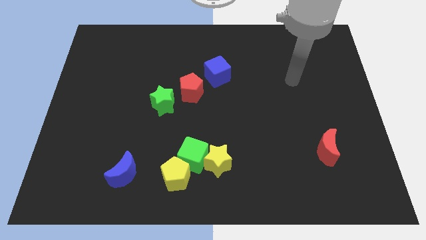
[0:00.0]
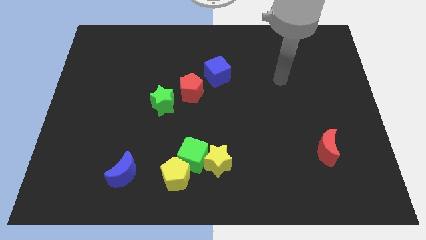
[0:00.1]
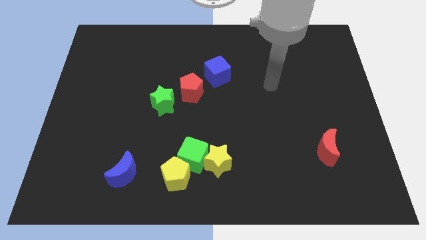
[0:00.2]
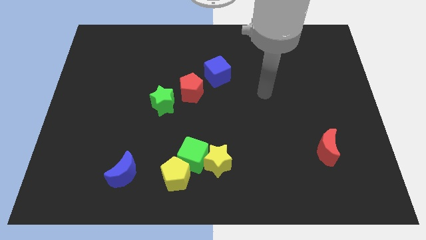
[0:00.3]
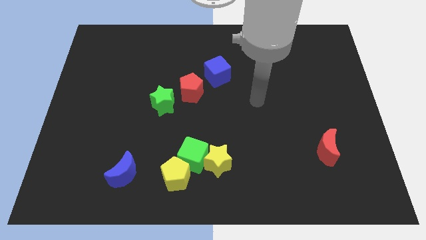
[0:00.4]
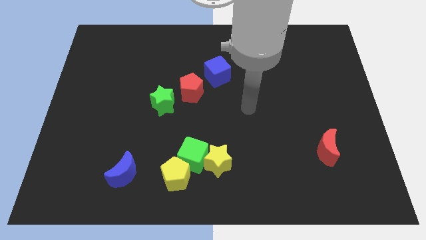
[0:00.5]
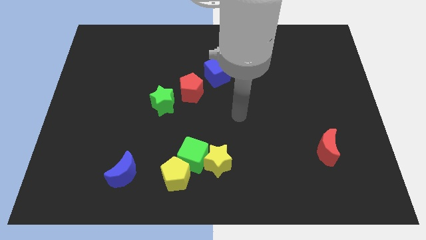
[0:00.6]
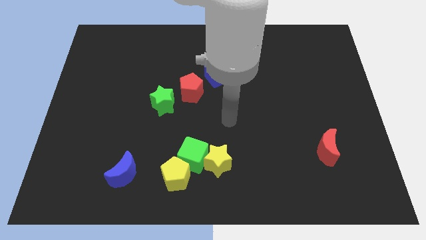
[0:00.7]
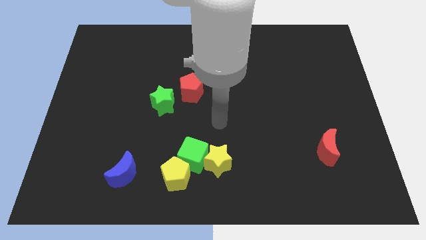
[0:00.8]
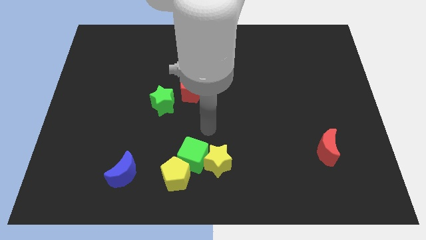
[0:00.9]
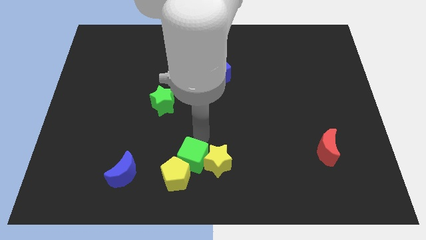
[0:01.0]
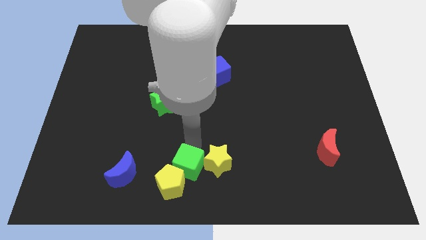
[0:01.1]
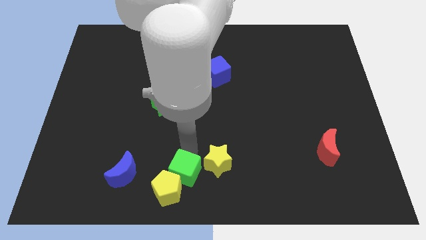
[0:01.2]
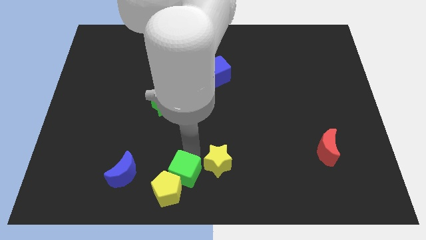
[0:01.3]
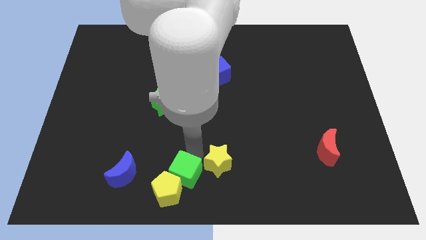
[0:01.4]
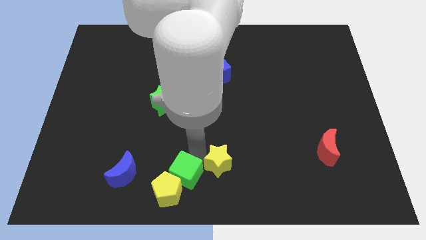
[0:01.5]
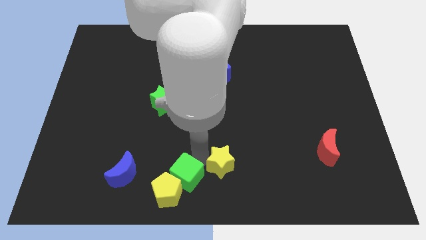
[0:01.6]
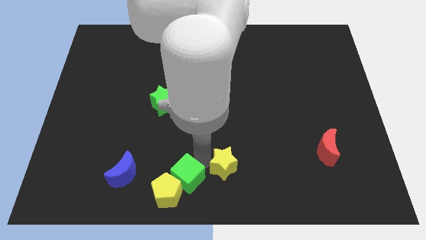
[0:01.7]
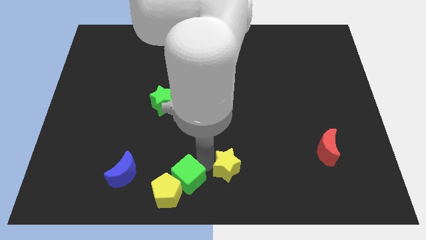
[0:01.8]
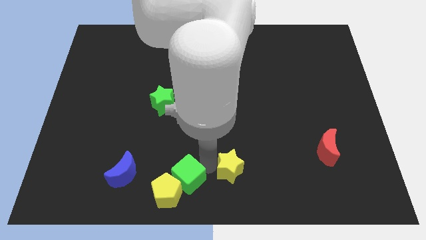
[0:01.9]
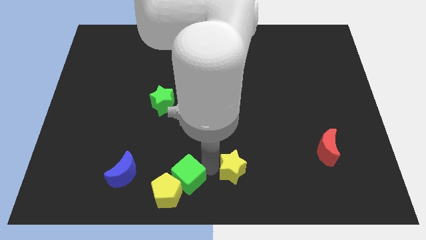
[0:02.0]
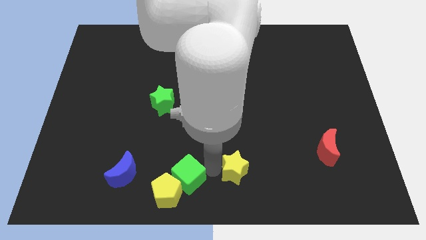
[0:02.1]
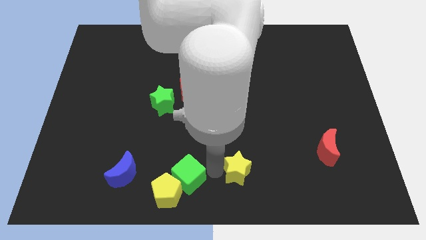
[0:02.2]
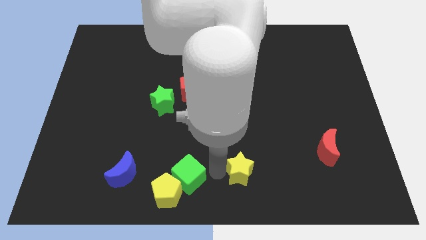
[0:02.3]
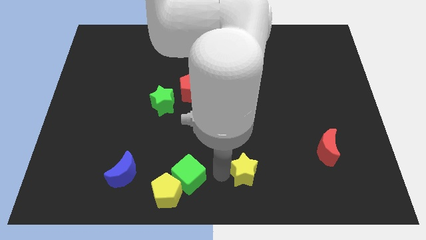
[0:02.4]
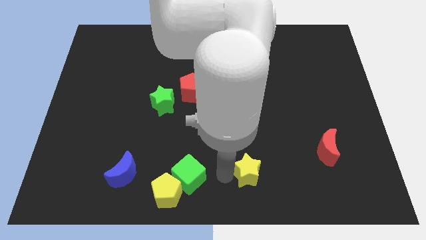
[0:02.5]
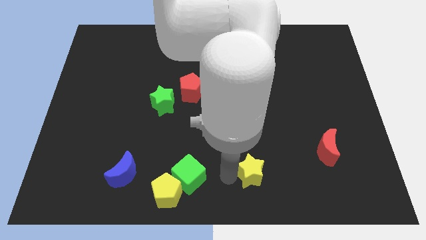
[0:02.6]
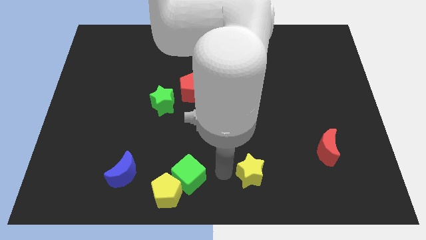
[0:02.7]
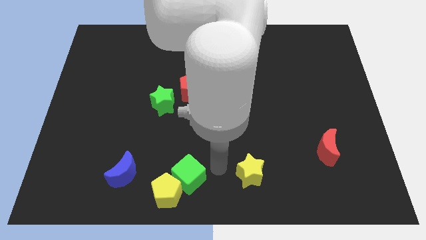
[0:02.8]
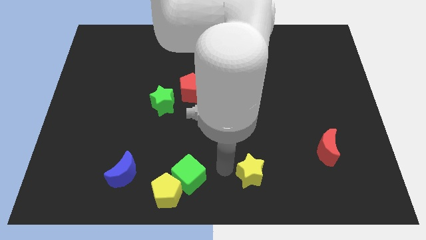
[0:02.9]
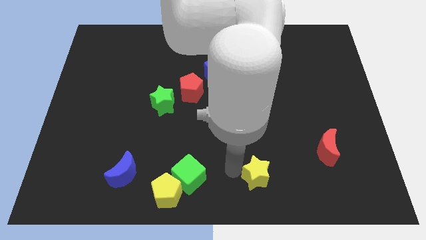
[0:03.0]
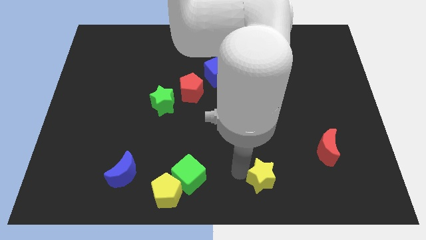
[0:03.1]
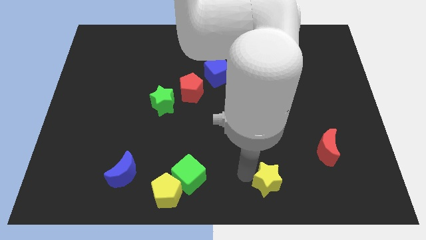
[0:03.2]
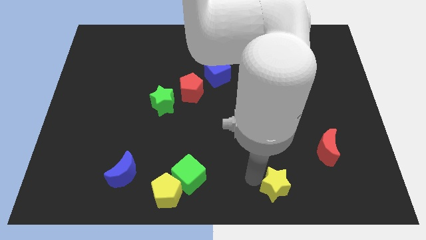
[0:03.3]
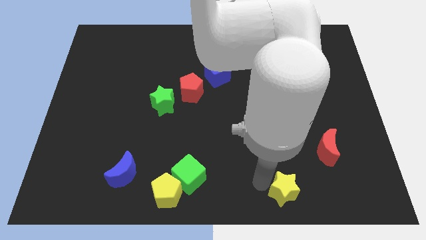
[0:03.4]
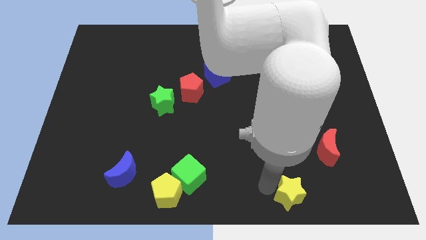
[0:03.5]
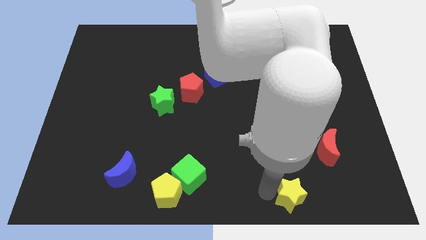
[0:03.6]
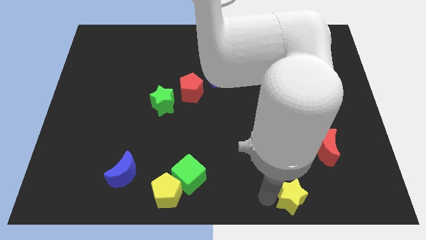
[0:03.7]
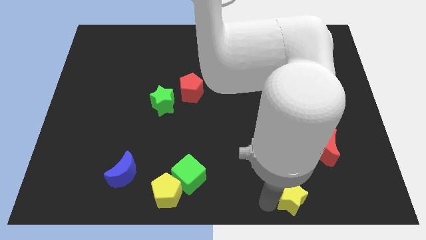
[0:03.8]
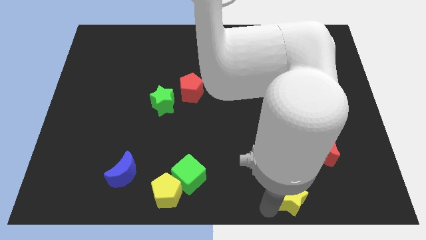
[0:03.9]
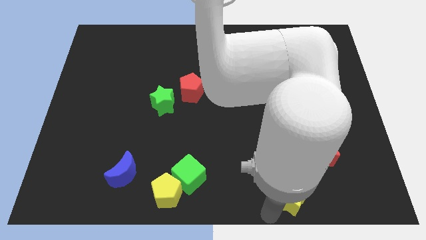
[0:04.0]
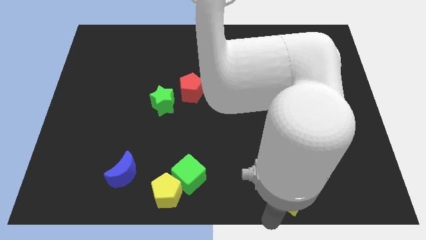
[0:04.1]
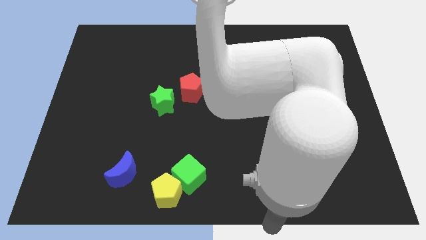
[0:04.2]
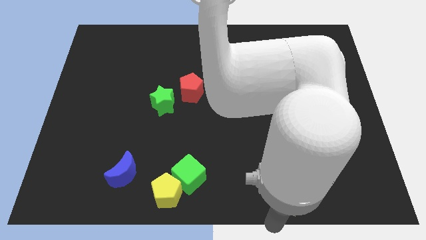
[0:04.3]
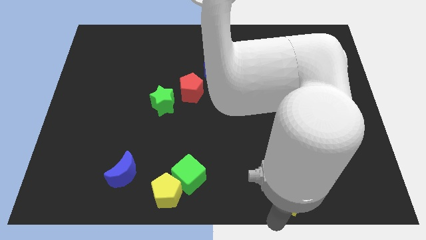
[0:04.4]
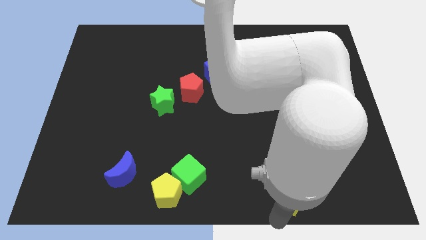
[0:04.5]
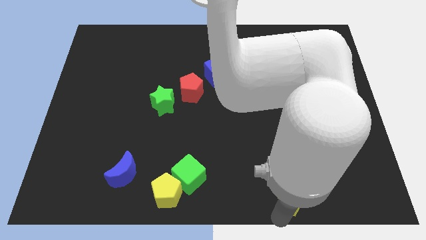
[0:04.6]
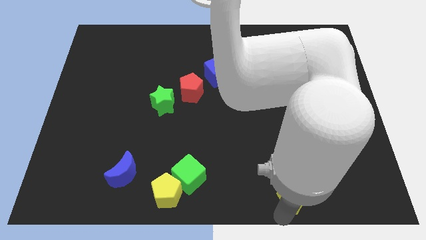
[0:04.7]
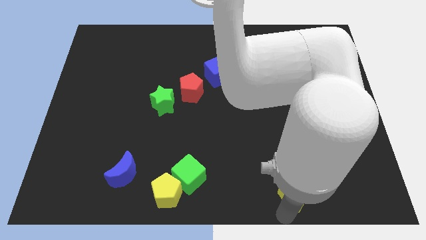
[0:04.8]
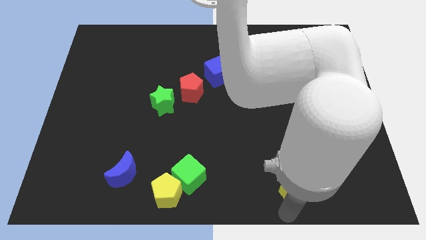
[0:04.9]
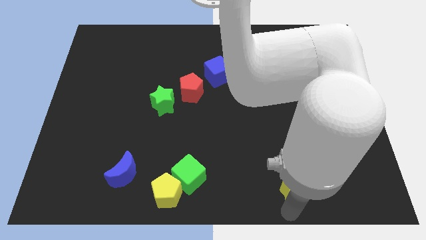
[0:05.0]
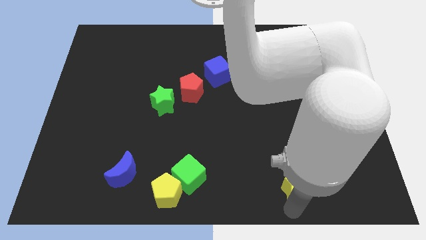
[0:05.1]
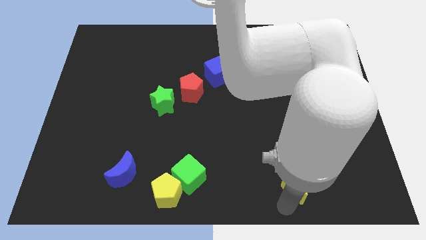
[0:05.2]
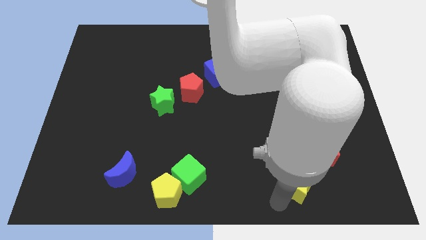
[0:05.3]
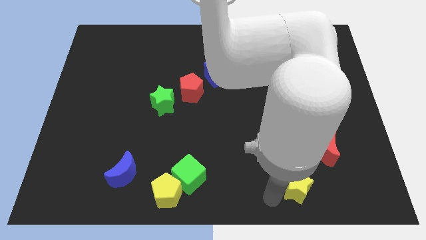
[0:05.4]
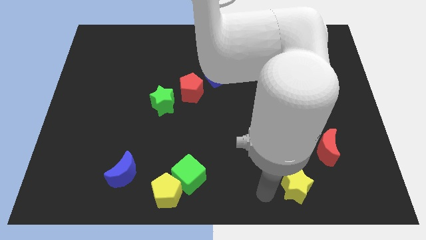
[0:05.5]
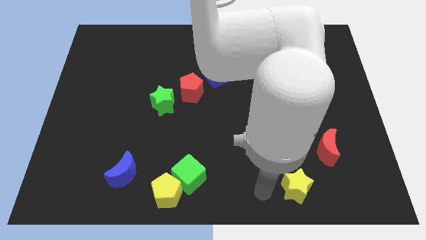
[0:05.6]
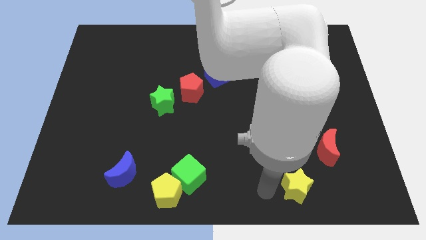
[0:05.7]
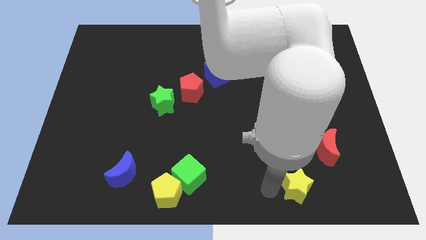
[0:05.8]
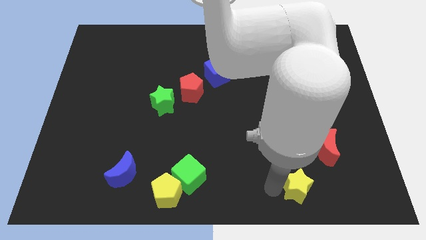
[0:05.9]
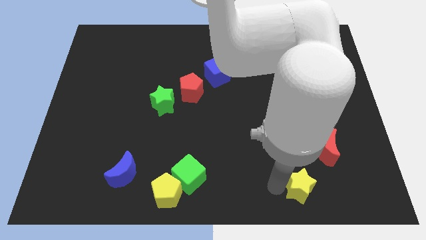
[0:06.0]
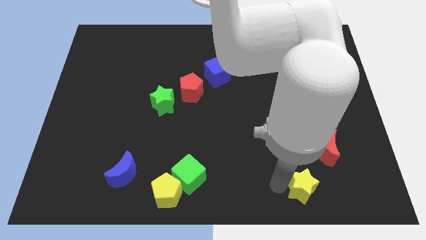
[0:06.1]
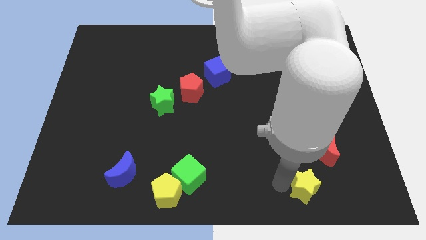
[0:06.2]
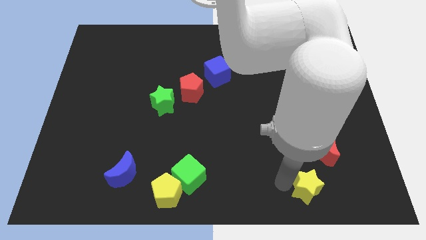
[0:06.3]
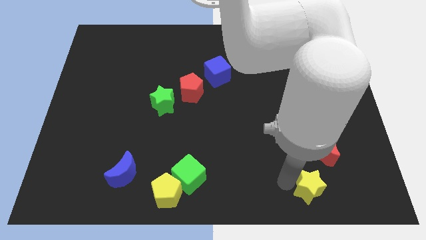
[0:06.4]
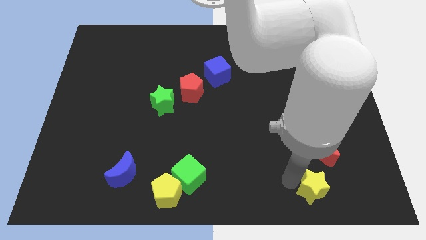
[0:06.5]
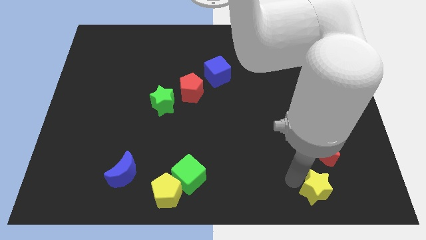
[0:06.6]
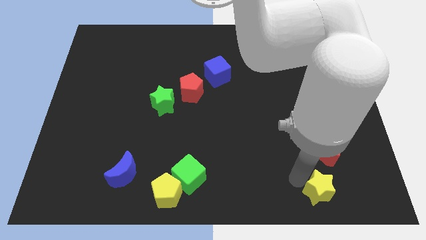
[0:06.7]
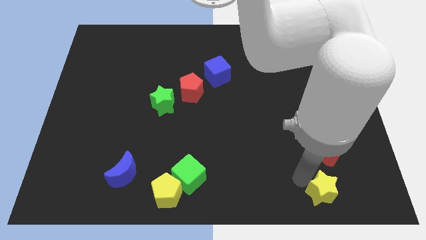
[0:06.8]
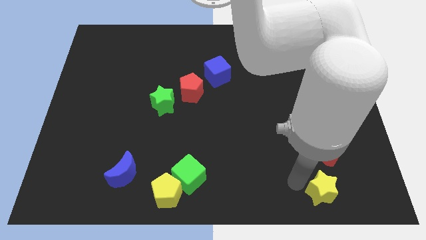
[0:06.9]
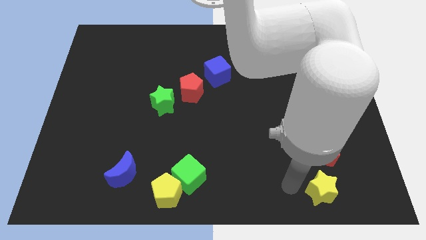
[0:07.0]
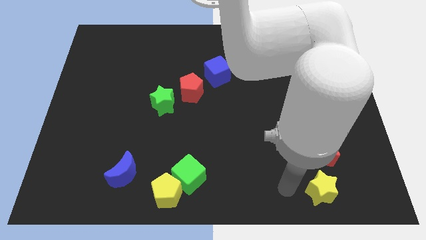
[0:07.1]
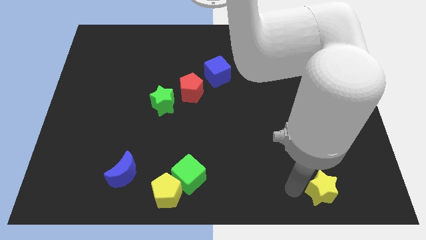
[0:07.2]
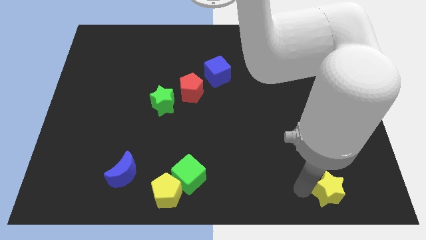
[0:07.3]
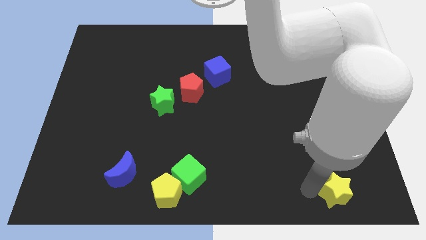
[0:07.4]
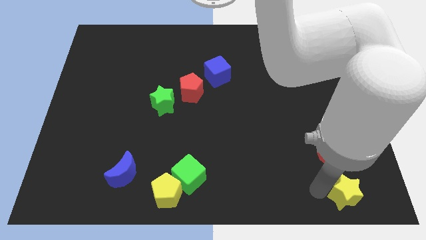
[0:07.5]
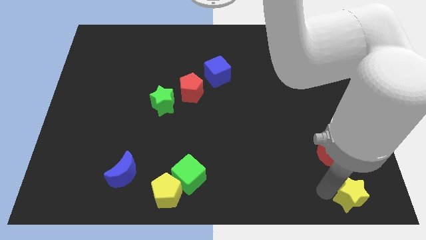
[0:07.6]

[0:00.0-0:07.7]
move the yellow star to the bottom right corner
